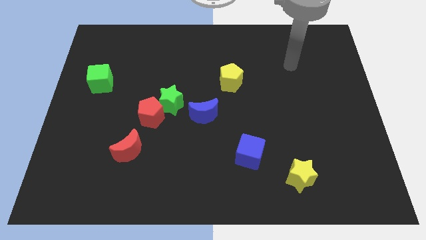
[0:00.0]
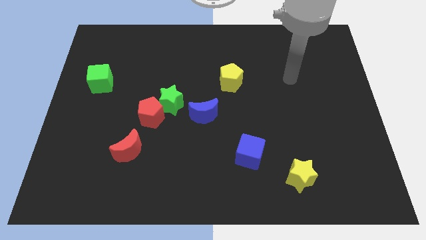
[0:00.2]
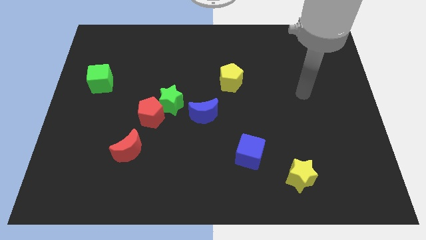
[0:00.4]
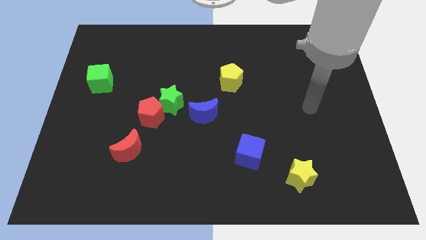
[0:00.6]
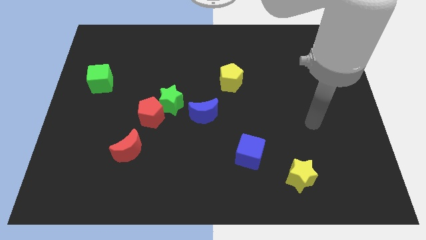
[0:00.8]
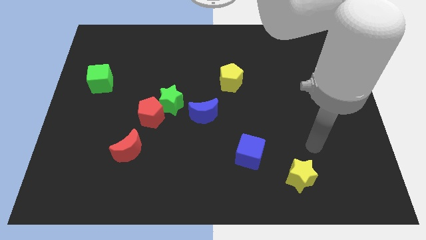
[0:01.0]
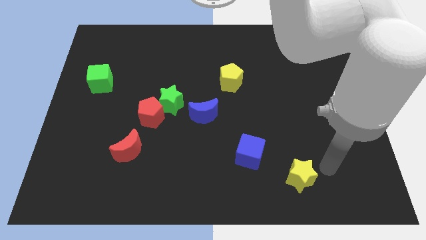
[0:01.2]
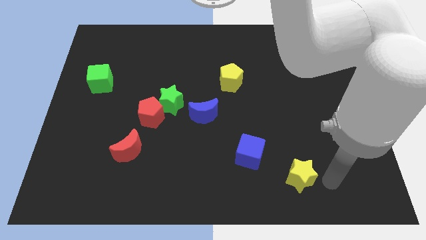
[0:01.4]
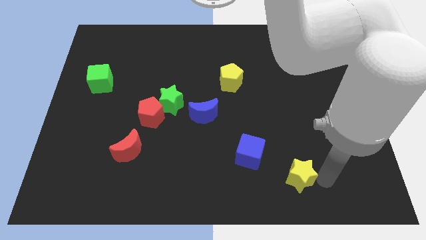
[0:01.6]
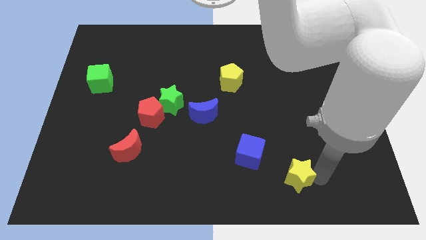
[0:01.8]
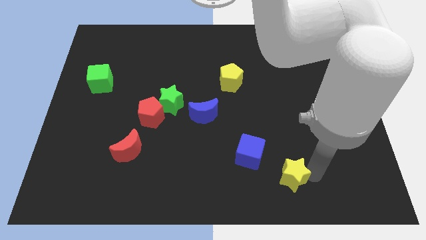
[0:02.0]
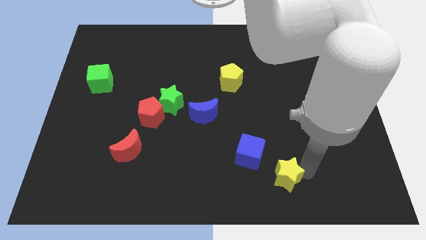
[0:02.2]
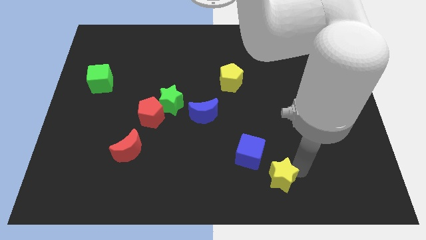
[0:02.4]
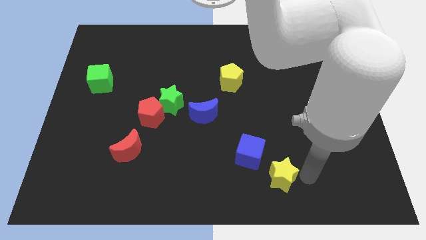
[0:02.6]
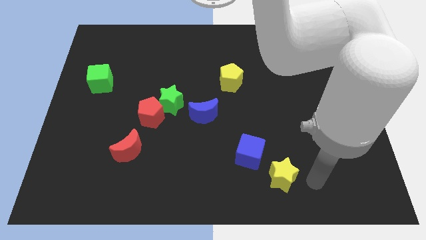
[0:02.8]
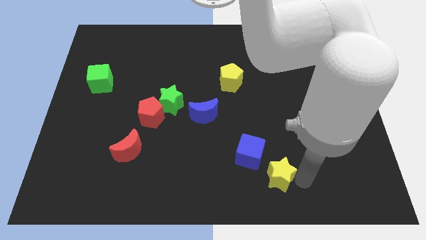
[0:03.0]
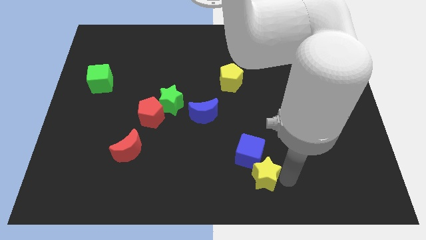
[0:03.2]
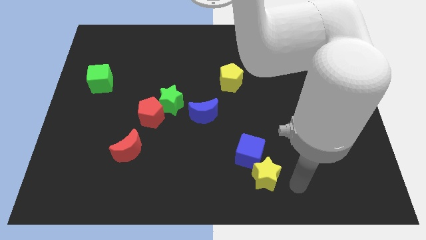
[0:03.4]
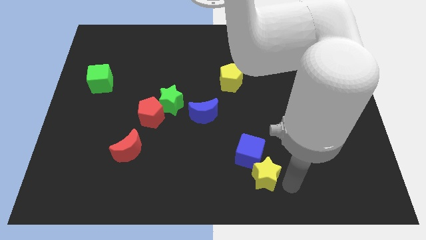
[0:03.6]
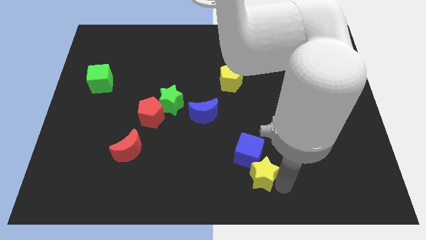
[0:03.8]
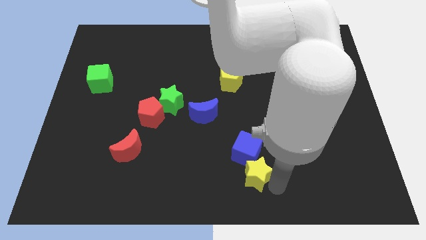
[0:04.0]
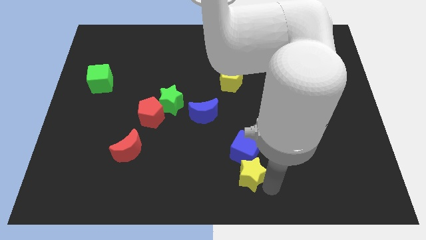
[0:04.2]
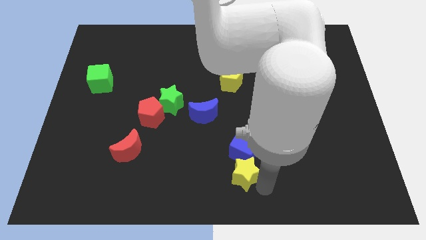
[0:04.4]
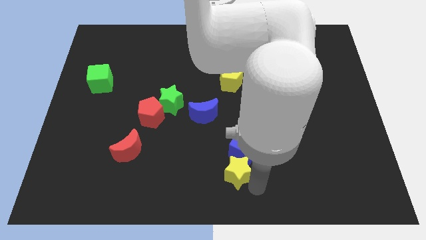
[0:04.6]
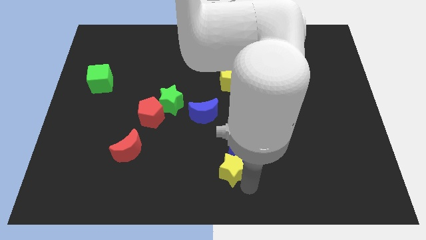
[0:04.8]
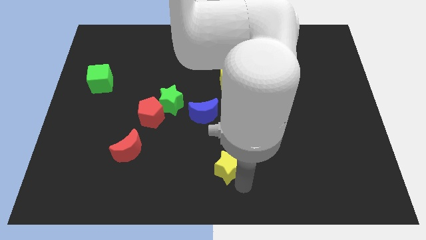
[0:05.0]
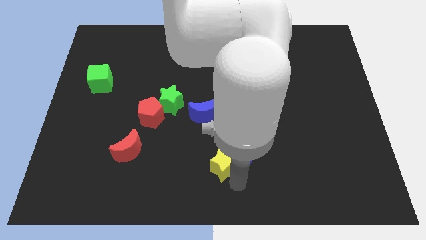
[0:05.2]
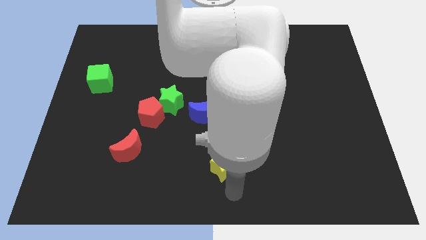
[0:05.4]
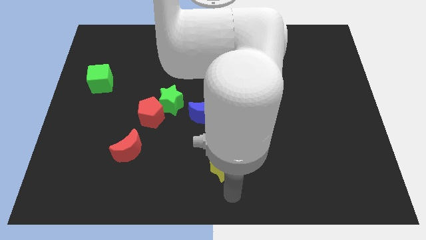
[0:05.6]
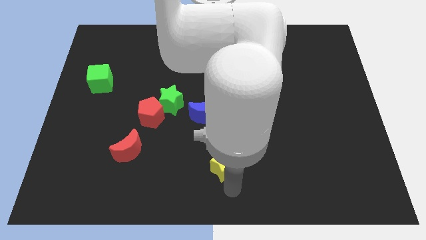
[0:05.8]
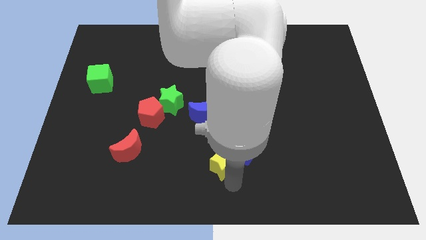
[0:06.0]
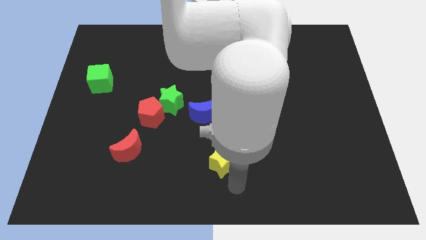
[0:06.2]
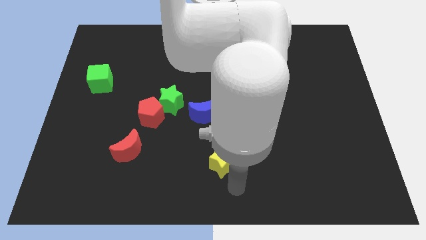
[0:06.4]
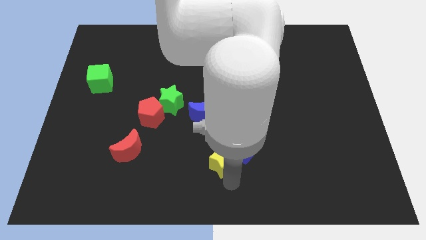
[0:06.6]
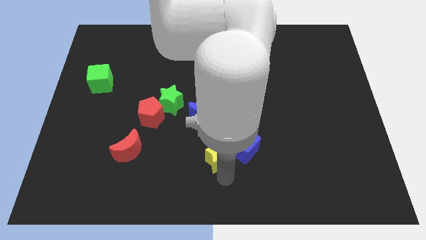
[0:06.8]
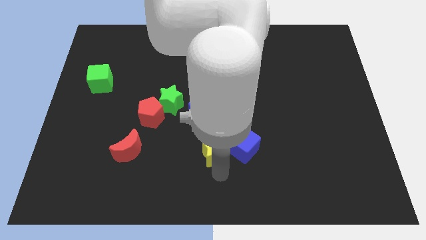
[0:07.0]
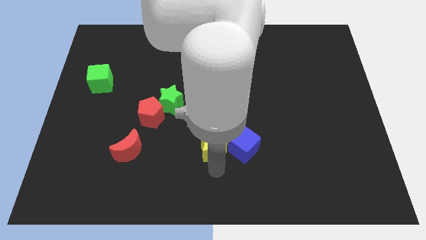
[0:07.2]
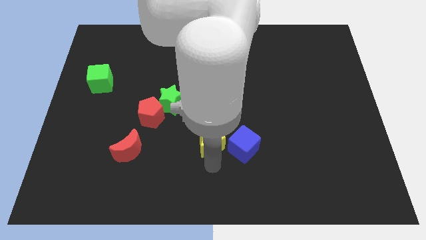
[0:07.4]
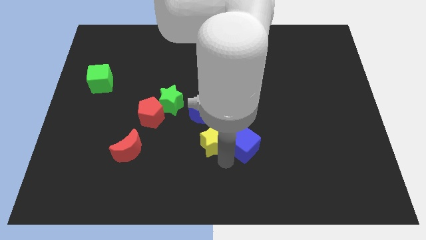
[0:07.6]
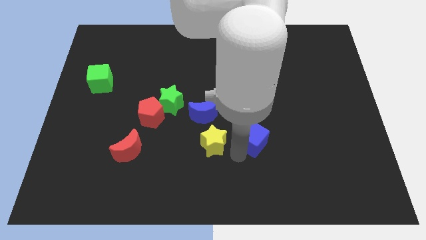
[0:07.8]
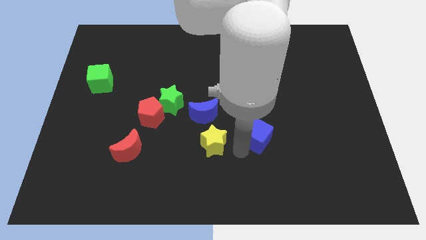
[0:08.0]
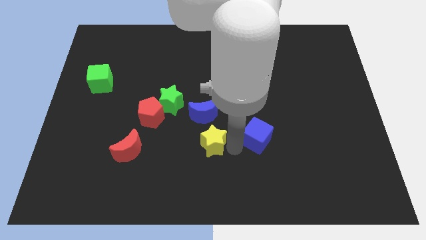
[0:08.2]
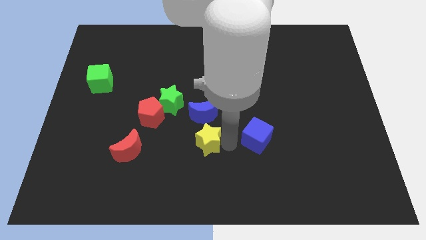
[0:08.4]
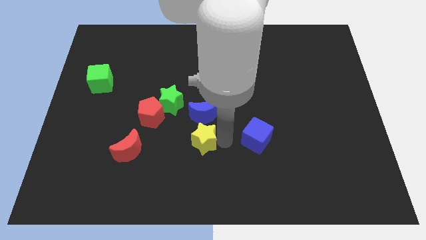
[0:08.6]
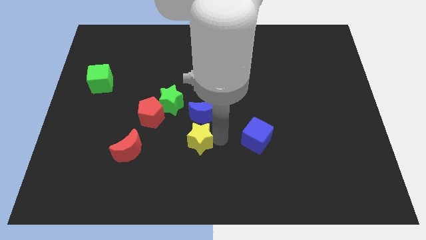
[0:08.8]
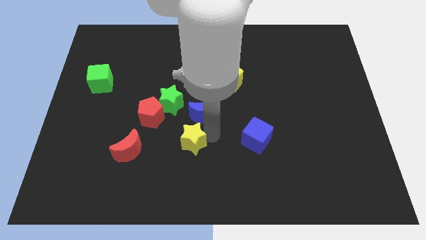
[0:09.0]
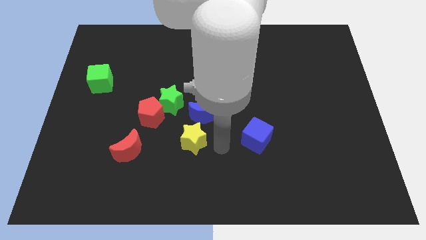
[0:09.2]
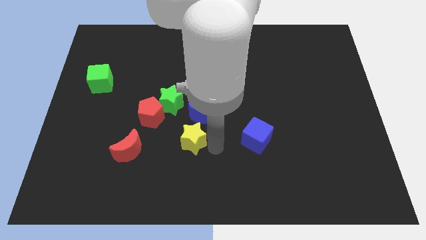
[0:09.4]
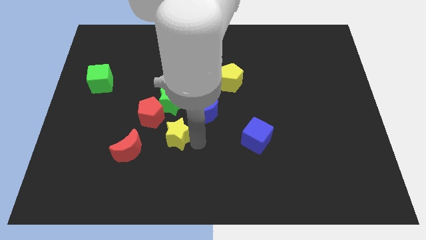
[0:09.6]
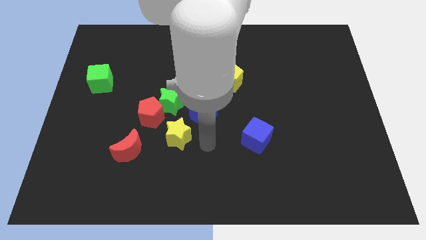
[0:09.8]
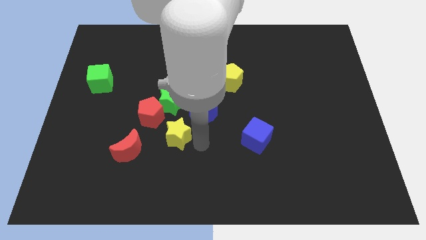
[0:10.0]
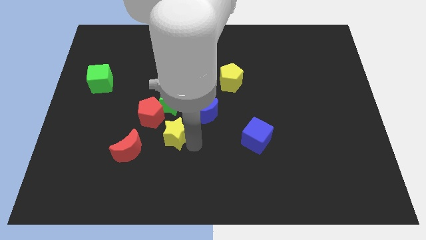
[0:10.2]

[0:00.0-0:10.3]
push the yellow star diagonally up and to the right of the red moon
